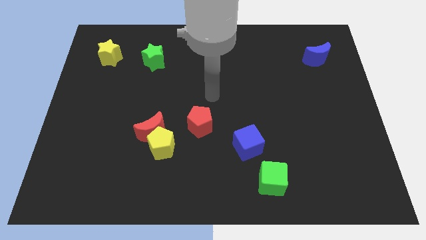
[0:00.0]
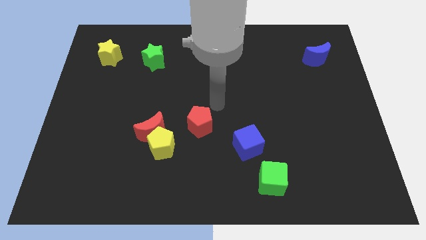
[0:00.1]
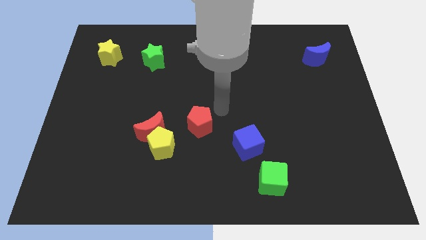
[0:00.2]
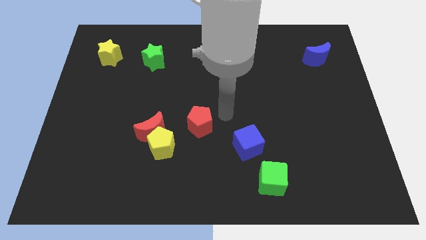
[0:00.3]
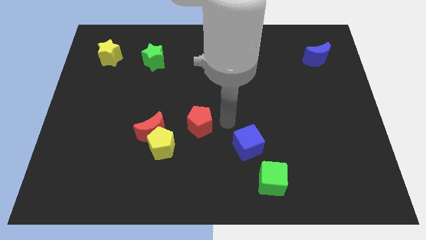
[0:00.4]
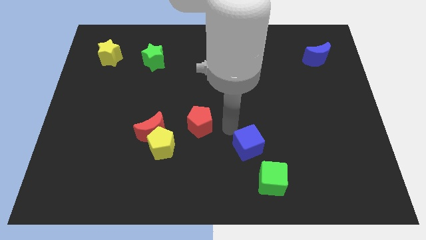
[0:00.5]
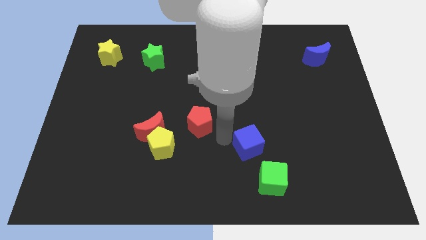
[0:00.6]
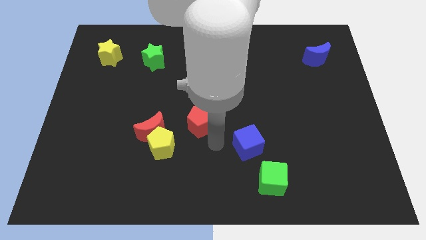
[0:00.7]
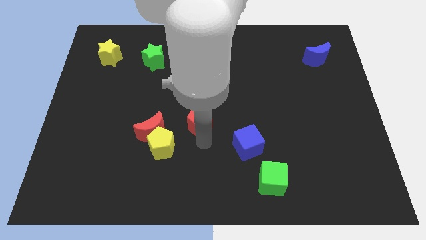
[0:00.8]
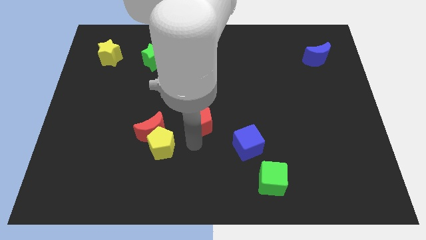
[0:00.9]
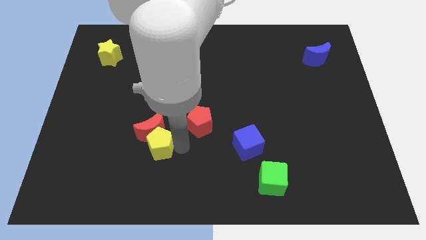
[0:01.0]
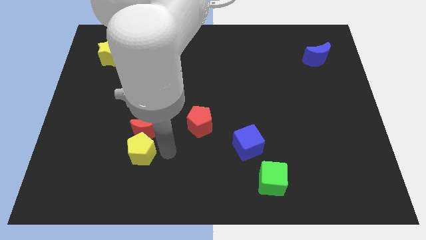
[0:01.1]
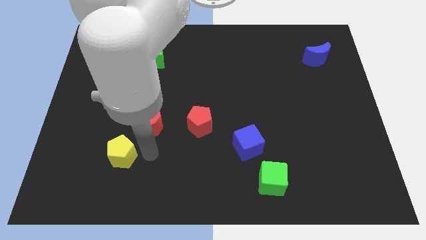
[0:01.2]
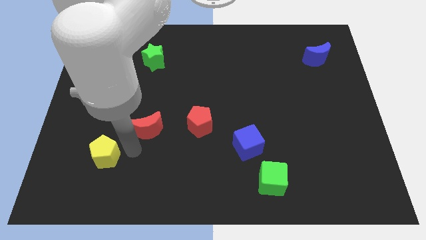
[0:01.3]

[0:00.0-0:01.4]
separate the red moon from the yellow pentagon

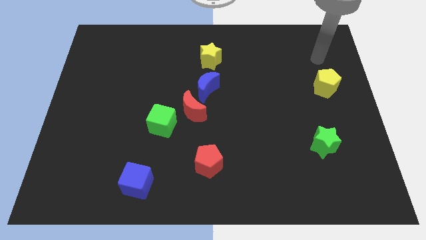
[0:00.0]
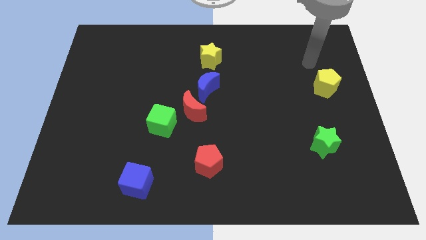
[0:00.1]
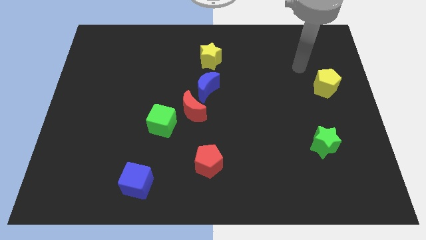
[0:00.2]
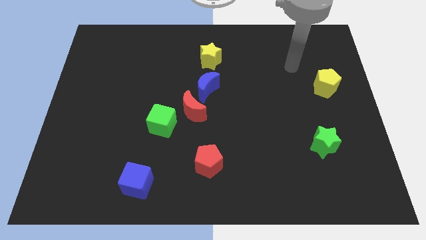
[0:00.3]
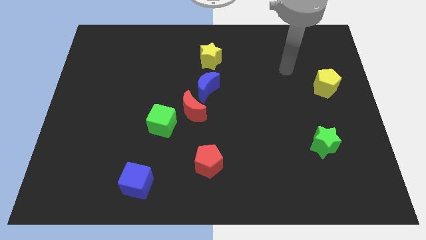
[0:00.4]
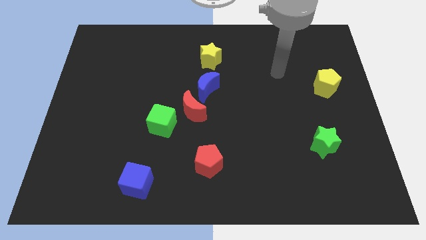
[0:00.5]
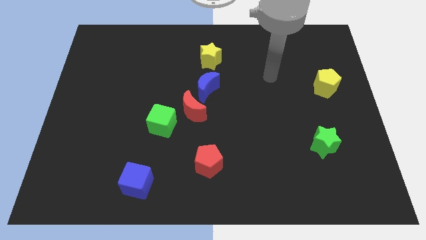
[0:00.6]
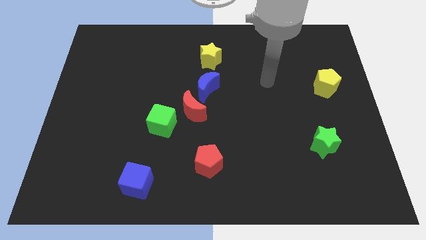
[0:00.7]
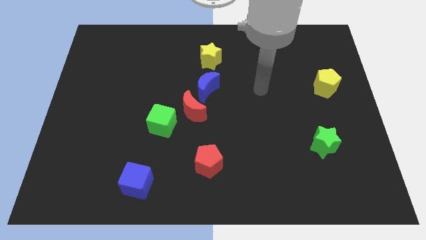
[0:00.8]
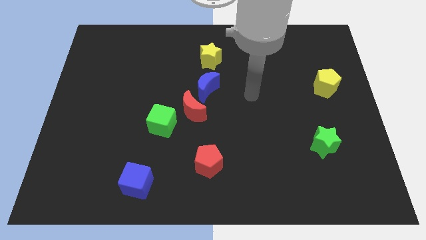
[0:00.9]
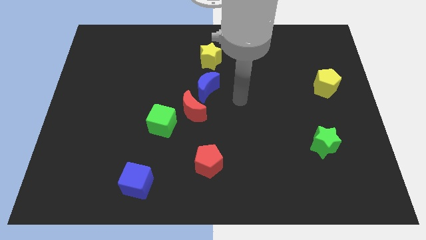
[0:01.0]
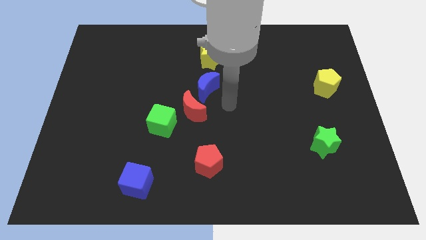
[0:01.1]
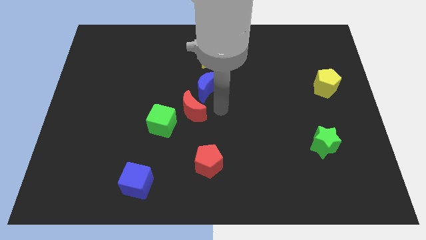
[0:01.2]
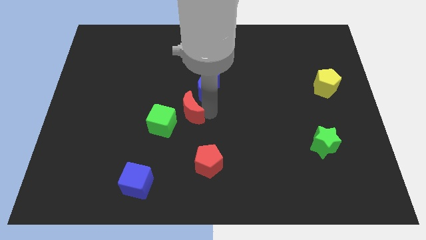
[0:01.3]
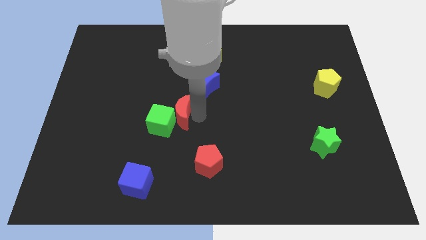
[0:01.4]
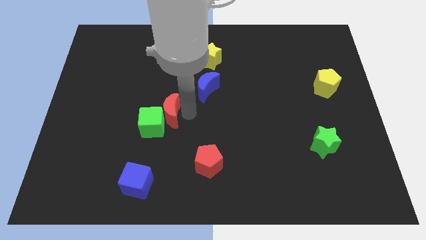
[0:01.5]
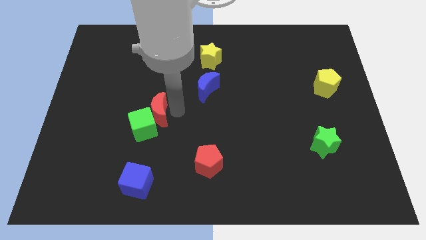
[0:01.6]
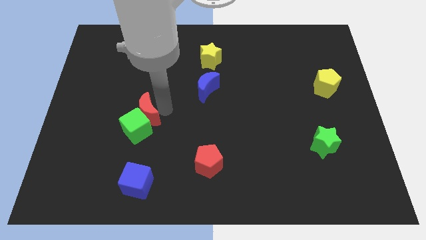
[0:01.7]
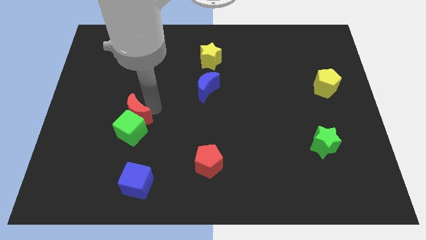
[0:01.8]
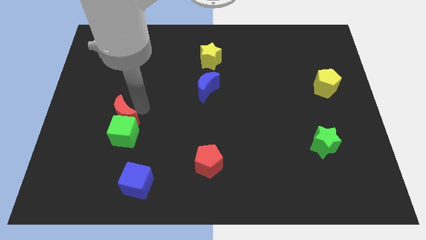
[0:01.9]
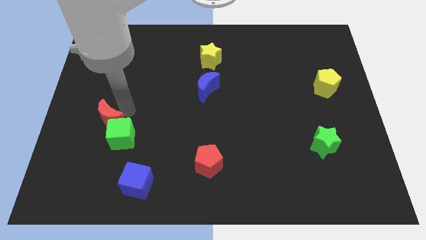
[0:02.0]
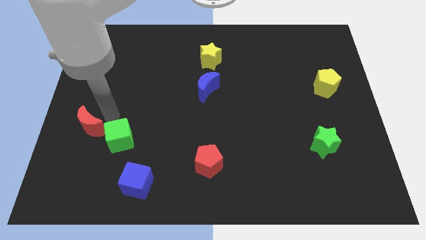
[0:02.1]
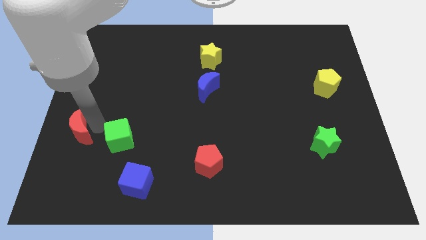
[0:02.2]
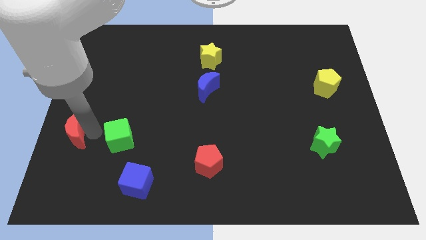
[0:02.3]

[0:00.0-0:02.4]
move the green cube away from the red moon

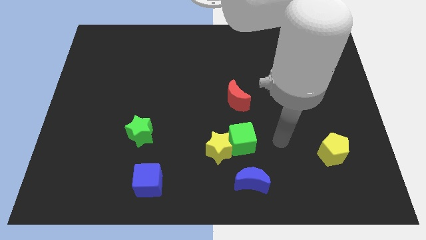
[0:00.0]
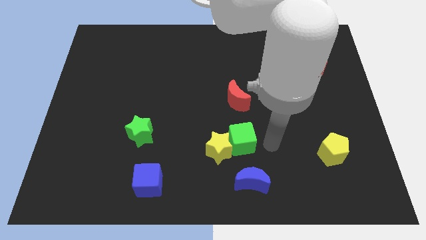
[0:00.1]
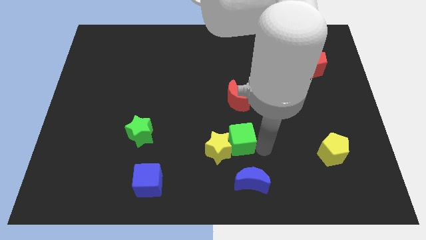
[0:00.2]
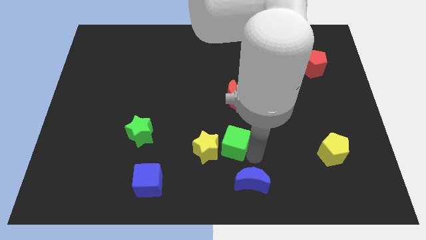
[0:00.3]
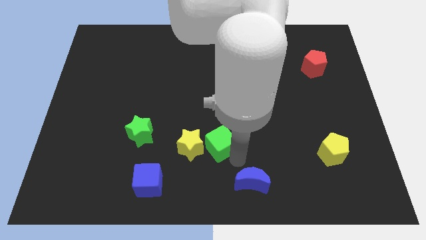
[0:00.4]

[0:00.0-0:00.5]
pull the yellow star apart from the green cube and blue moon

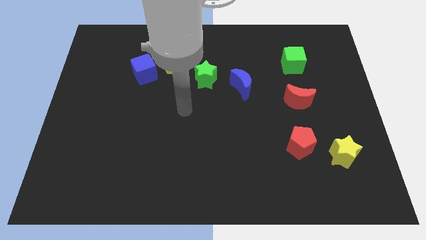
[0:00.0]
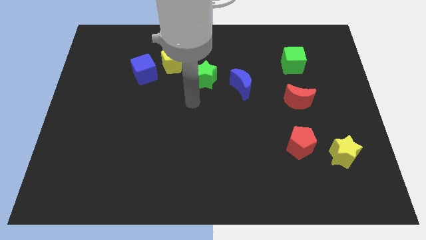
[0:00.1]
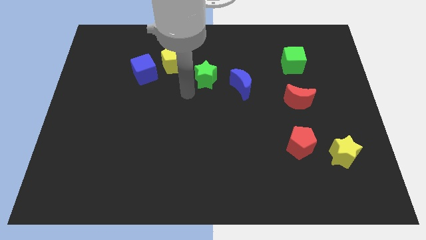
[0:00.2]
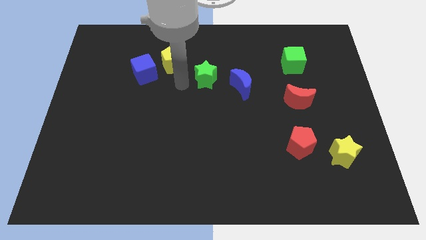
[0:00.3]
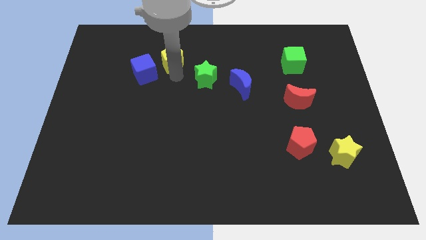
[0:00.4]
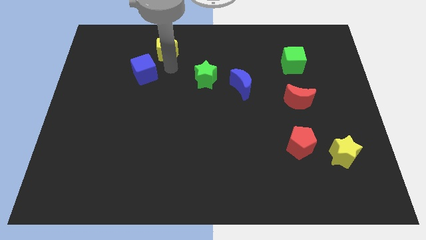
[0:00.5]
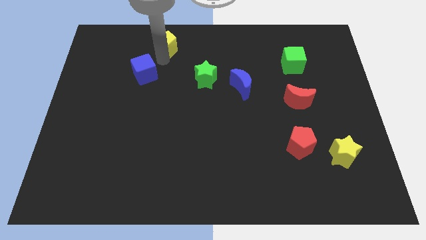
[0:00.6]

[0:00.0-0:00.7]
separate the blue cube from the yellow pentagon

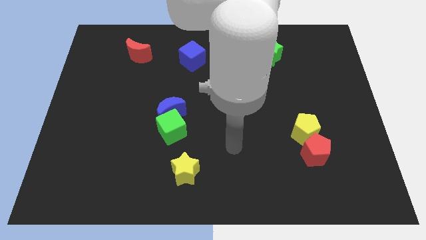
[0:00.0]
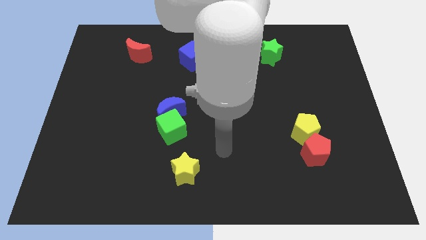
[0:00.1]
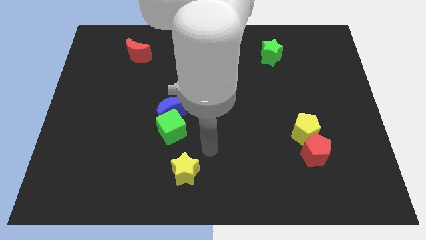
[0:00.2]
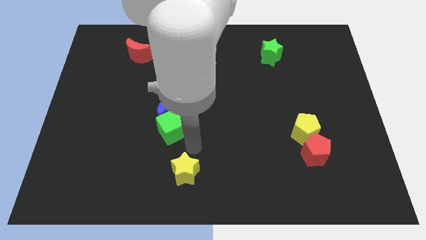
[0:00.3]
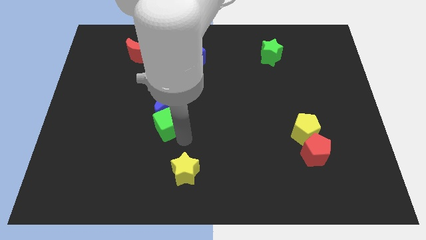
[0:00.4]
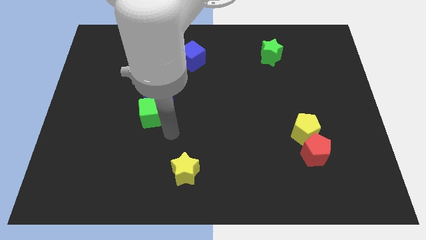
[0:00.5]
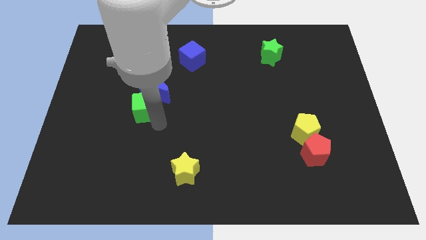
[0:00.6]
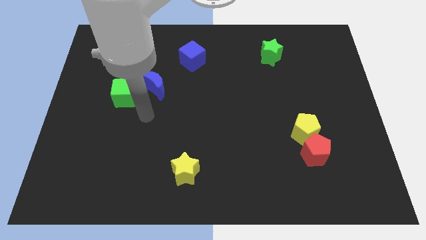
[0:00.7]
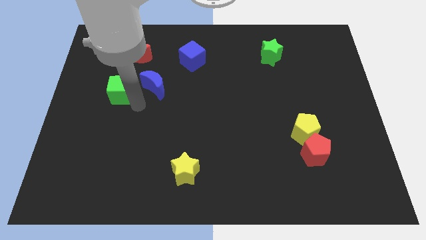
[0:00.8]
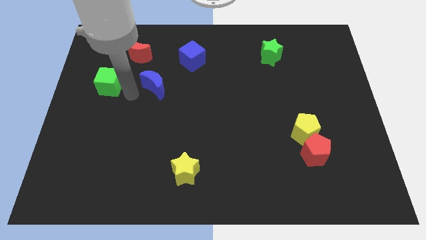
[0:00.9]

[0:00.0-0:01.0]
move the blue moon away from the green cube

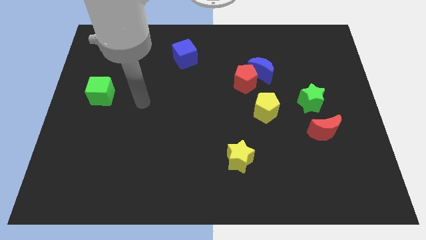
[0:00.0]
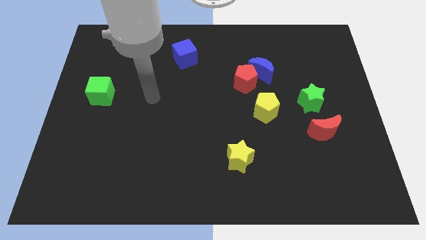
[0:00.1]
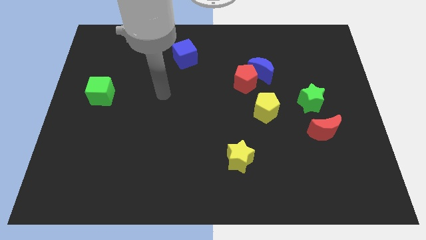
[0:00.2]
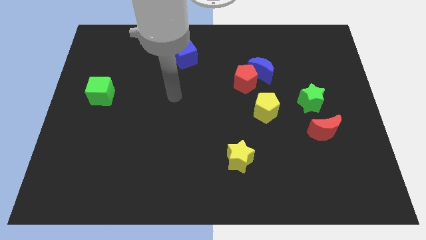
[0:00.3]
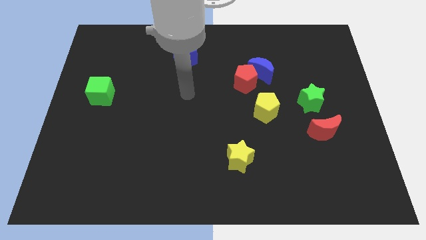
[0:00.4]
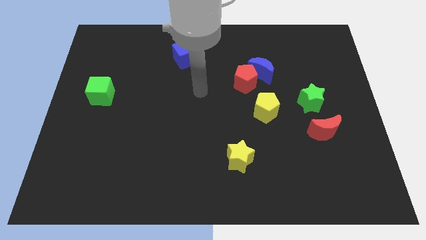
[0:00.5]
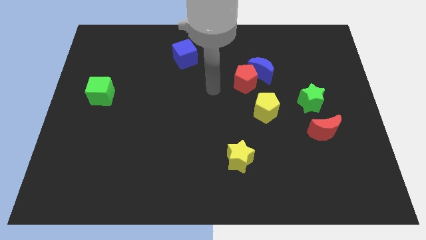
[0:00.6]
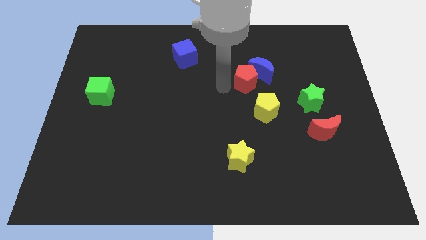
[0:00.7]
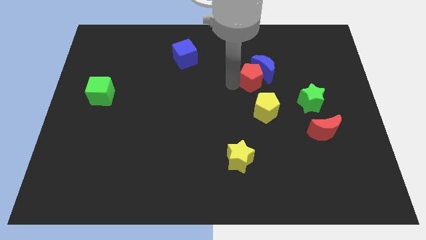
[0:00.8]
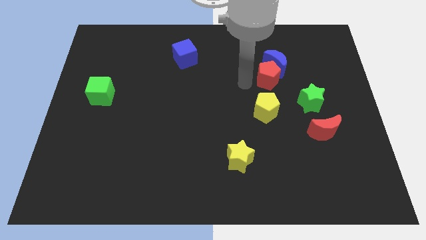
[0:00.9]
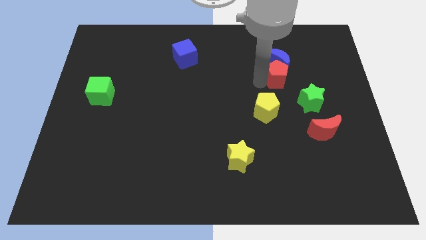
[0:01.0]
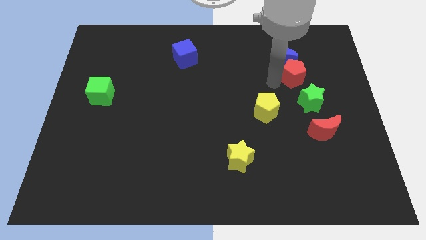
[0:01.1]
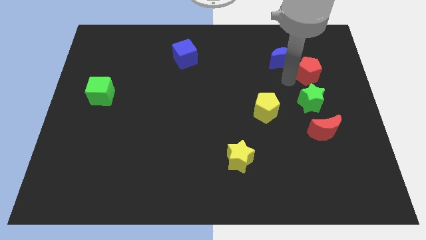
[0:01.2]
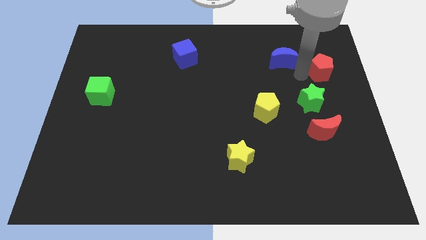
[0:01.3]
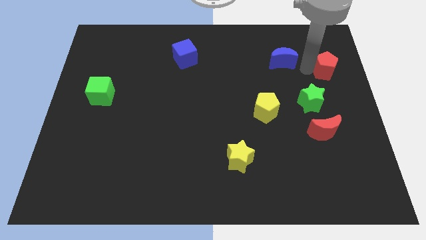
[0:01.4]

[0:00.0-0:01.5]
pull the blue moon apart from the red pentagon

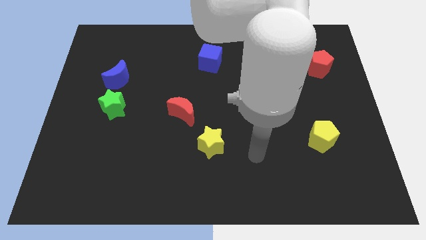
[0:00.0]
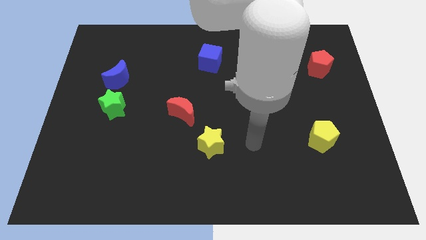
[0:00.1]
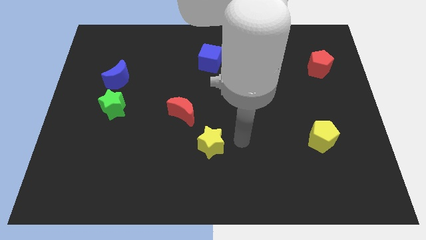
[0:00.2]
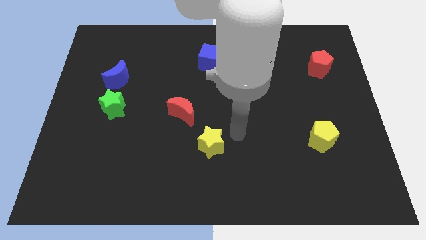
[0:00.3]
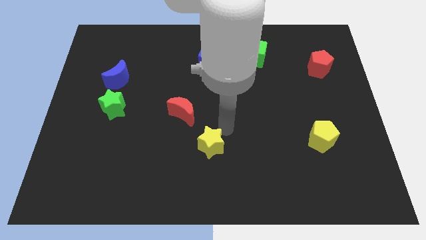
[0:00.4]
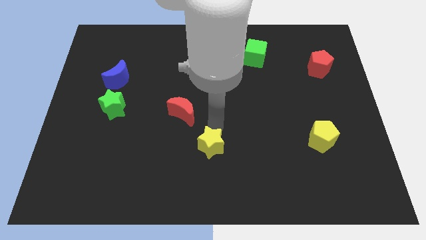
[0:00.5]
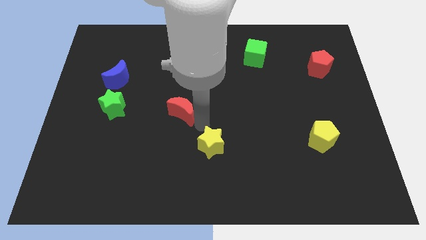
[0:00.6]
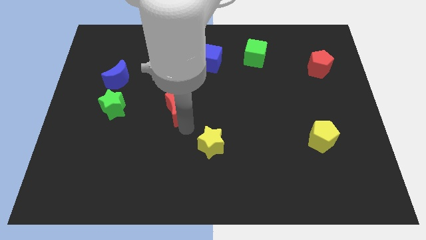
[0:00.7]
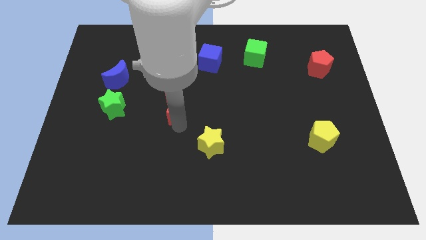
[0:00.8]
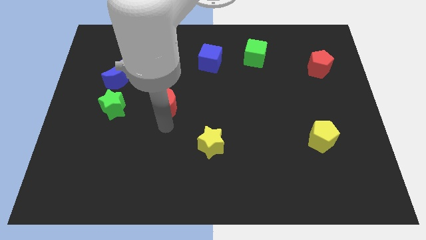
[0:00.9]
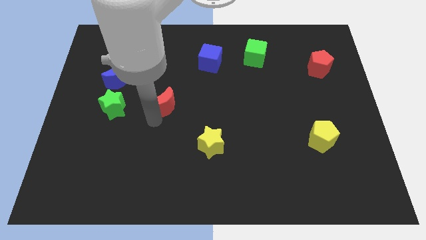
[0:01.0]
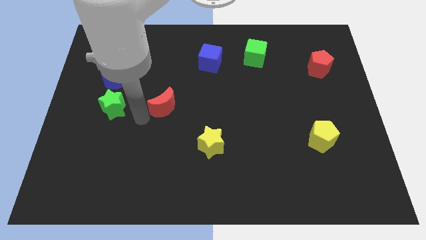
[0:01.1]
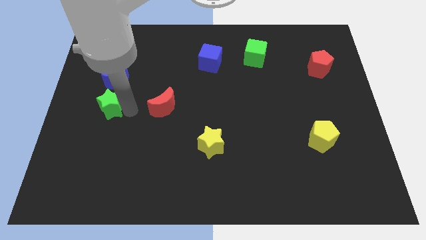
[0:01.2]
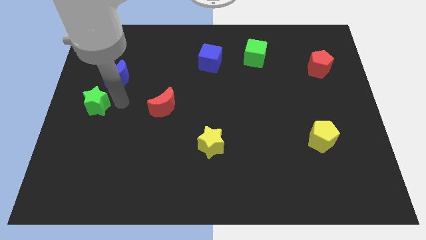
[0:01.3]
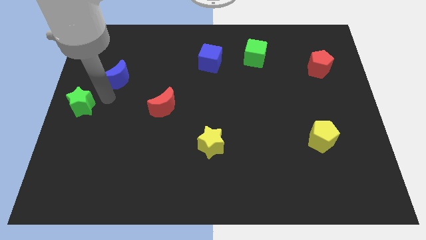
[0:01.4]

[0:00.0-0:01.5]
separate the blue moon from the green star

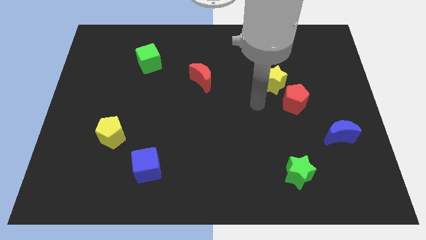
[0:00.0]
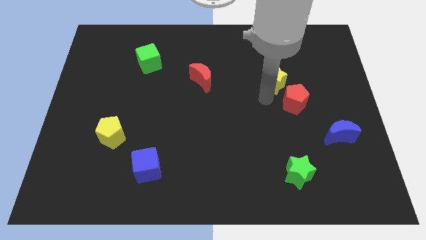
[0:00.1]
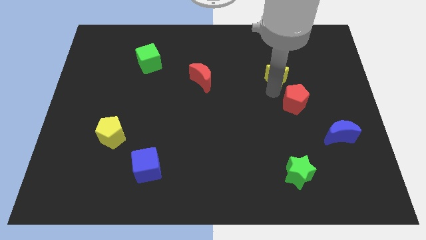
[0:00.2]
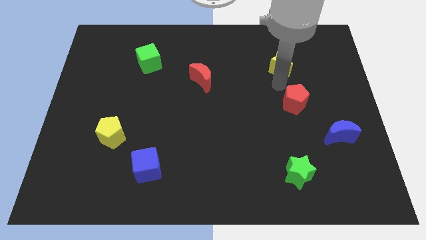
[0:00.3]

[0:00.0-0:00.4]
pull the red pentagon apart from the yellow star
